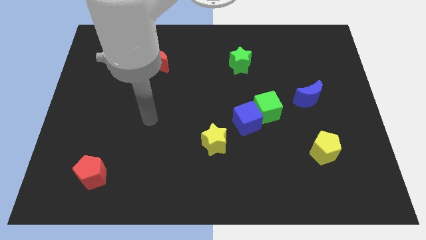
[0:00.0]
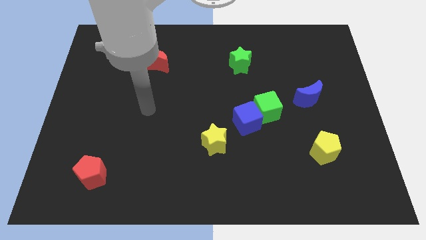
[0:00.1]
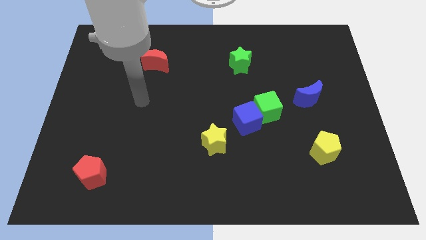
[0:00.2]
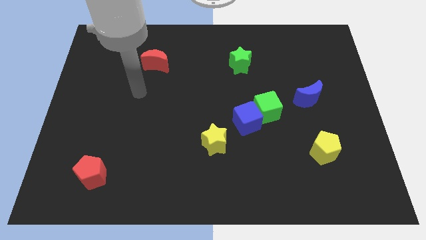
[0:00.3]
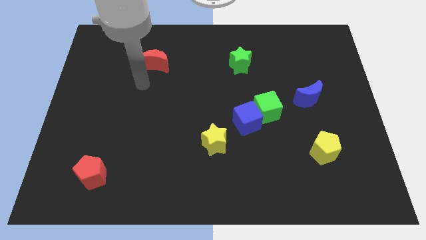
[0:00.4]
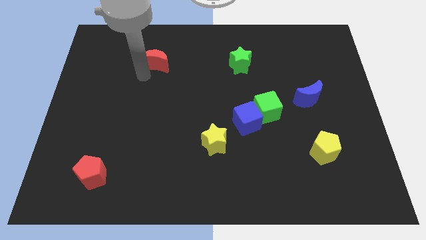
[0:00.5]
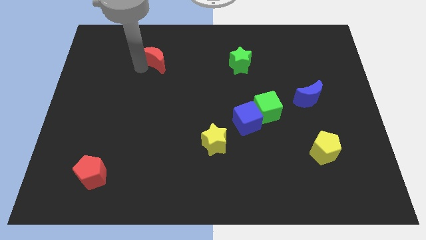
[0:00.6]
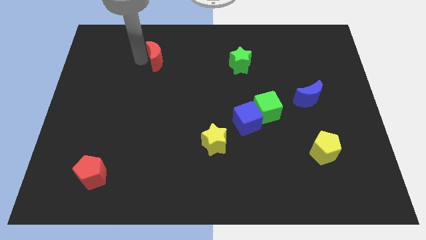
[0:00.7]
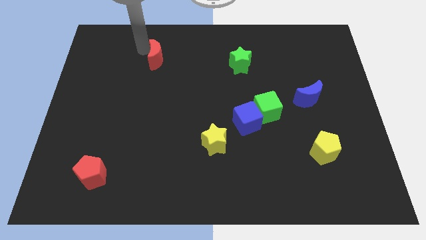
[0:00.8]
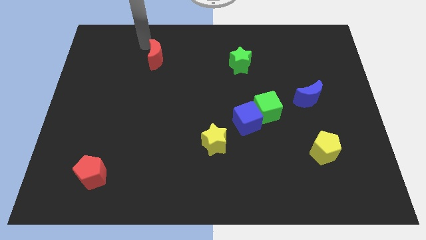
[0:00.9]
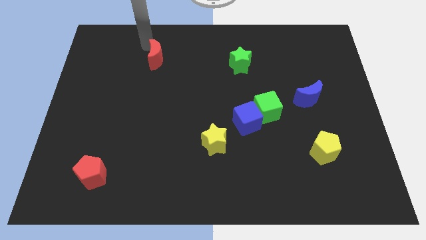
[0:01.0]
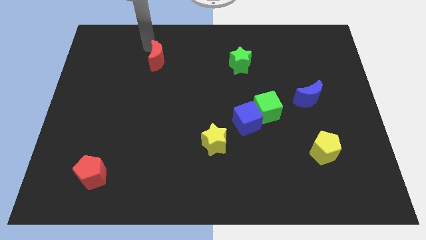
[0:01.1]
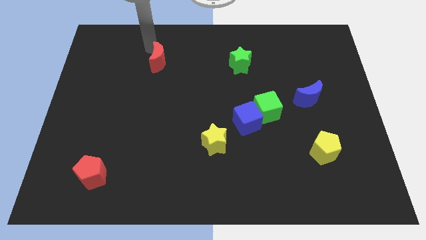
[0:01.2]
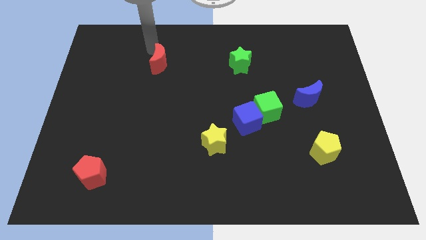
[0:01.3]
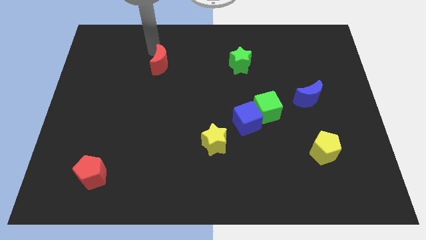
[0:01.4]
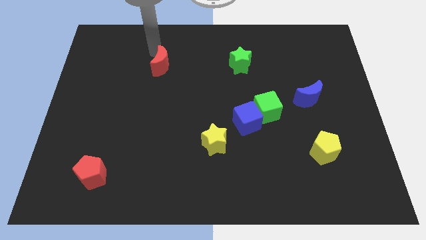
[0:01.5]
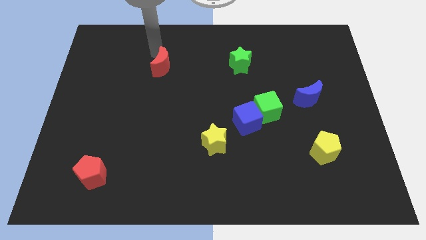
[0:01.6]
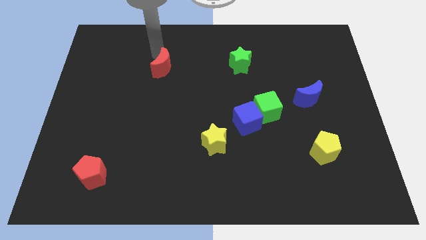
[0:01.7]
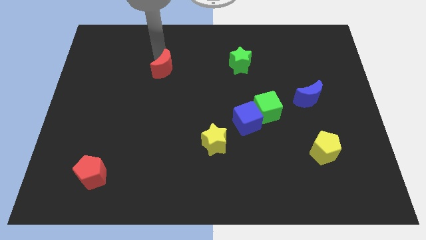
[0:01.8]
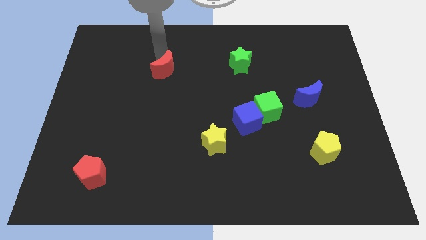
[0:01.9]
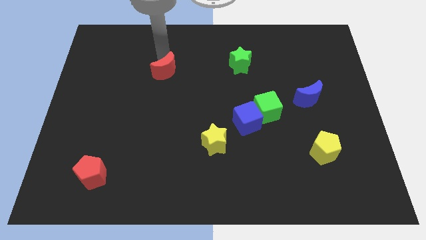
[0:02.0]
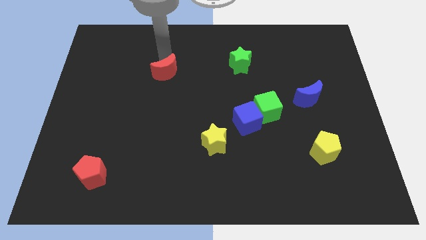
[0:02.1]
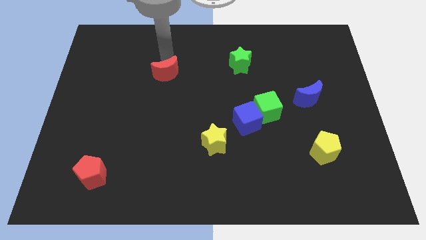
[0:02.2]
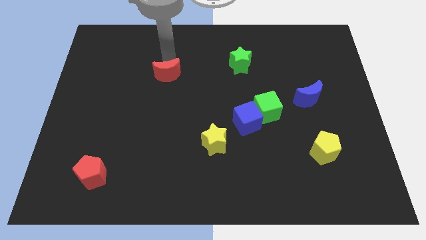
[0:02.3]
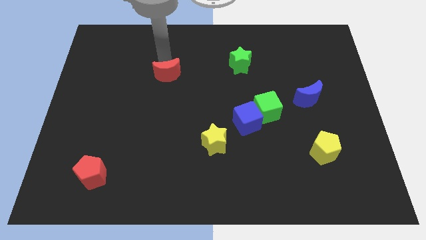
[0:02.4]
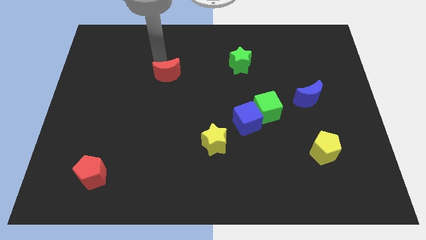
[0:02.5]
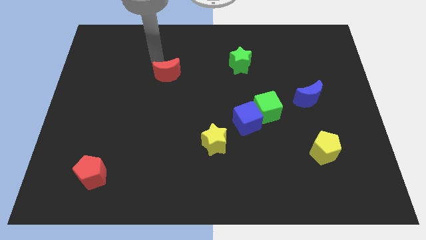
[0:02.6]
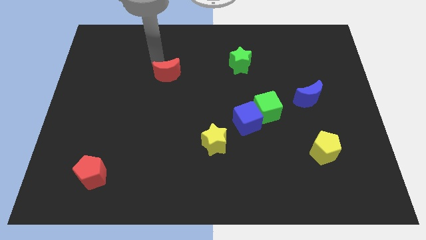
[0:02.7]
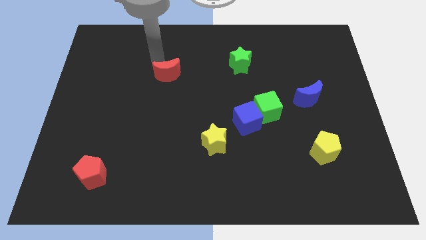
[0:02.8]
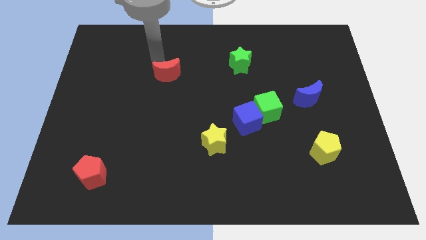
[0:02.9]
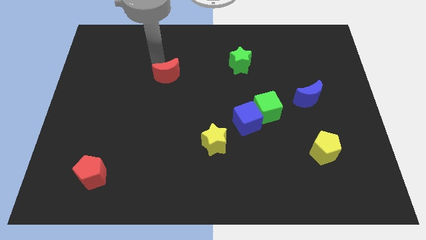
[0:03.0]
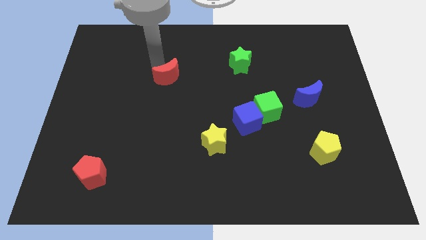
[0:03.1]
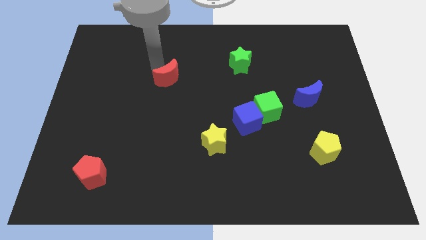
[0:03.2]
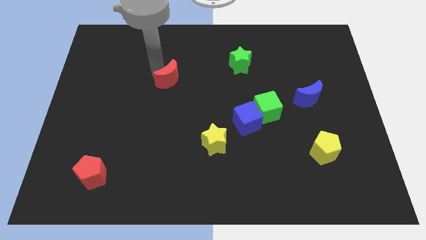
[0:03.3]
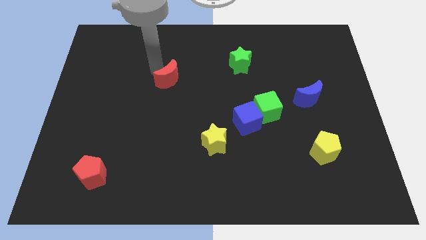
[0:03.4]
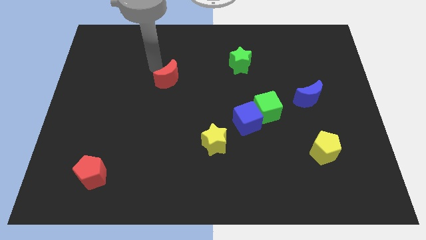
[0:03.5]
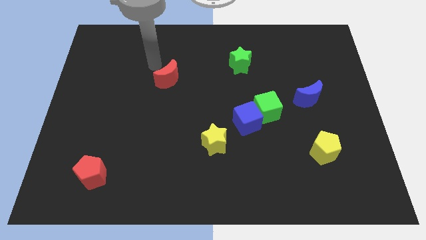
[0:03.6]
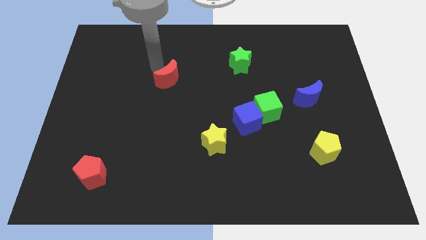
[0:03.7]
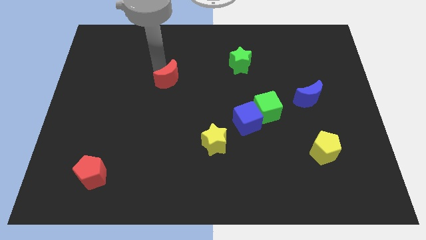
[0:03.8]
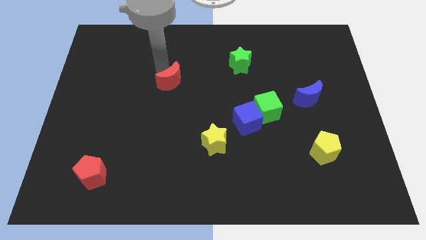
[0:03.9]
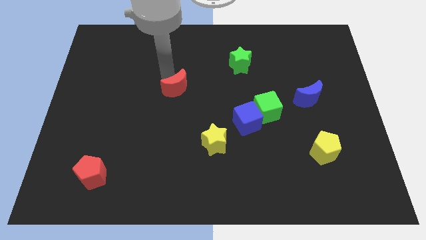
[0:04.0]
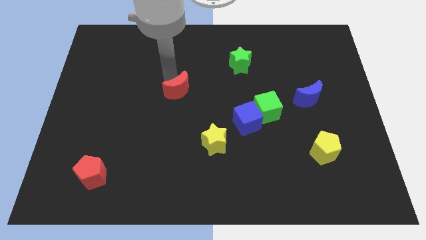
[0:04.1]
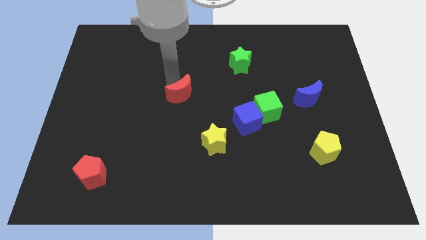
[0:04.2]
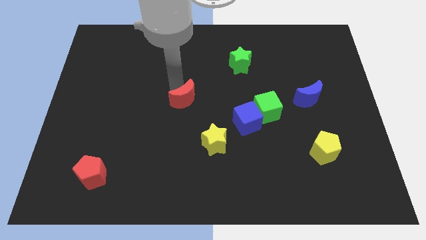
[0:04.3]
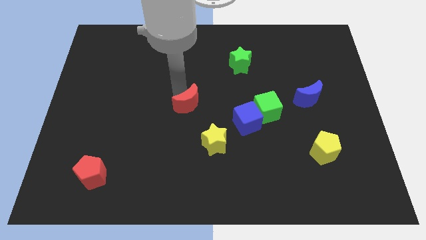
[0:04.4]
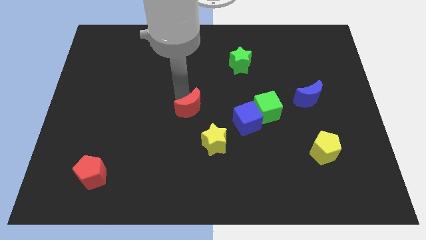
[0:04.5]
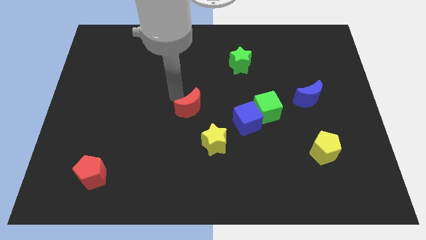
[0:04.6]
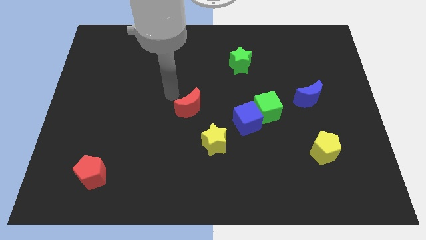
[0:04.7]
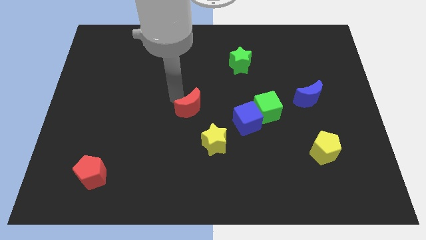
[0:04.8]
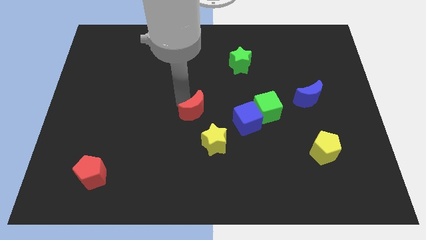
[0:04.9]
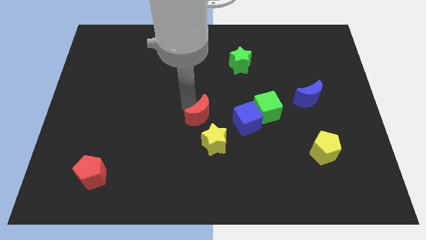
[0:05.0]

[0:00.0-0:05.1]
push the red moon downwards and right

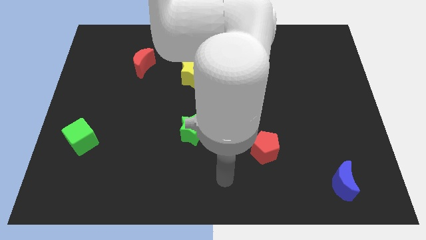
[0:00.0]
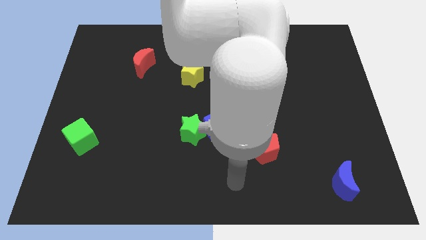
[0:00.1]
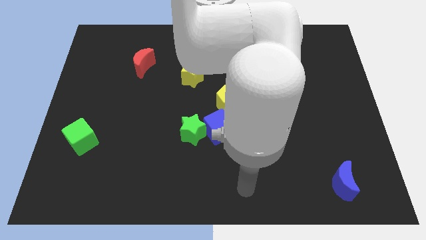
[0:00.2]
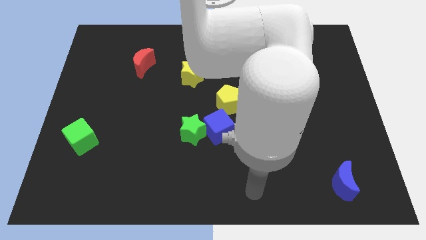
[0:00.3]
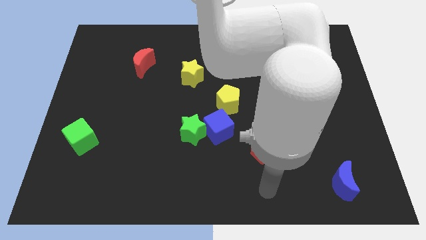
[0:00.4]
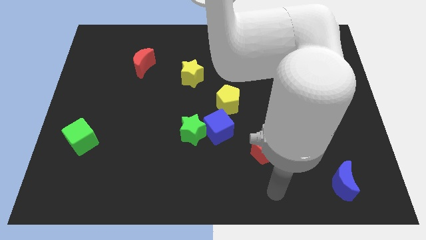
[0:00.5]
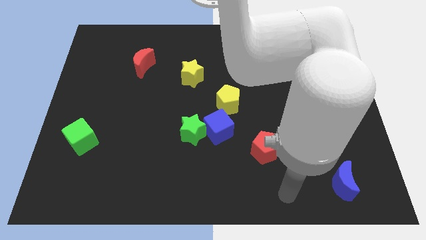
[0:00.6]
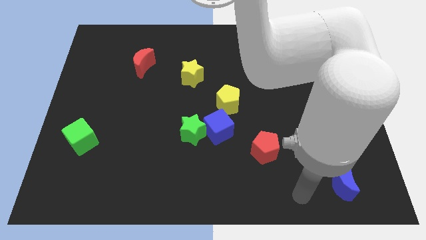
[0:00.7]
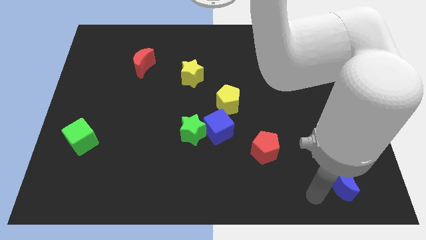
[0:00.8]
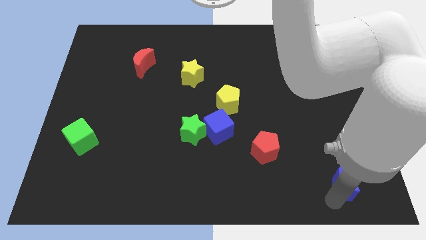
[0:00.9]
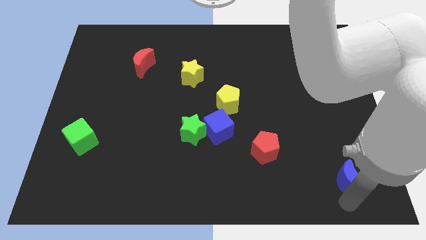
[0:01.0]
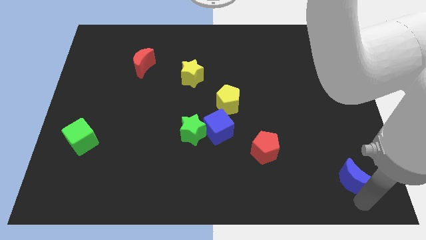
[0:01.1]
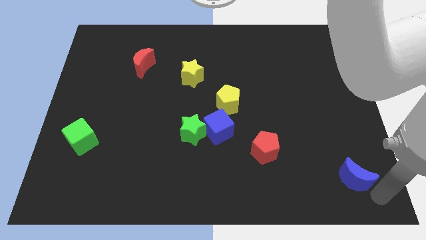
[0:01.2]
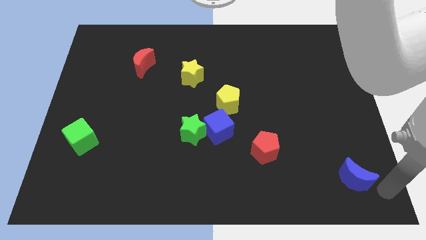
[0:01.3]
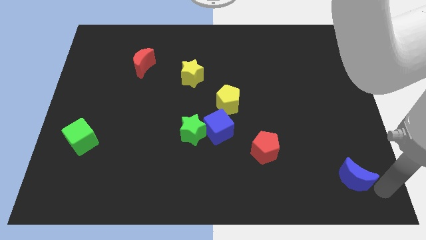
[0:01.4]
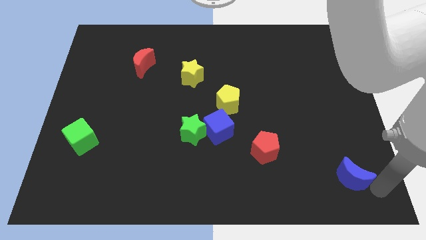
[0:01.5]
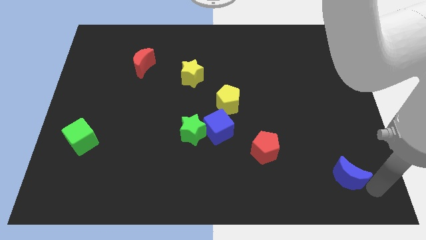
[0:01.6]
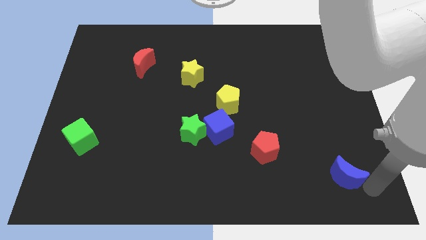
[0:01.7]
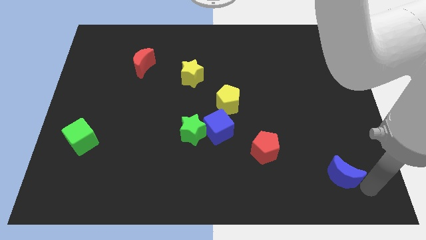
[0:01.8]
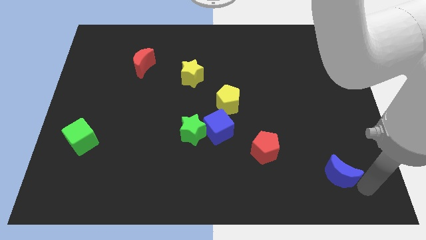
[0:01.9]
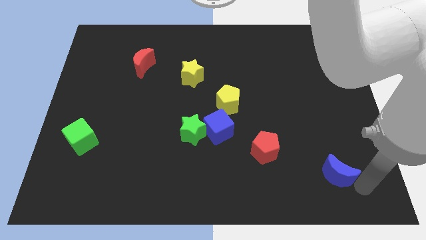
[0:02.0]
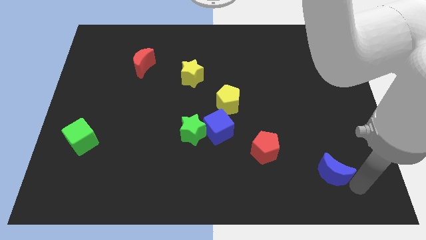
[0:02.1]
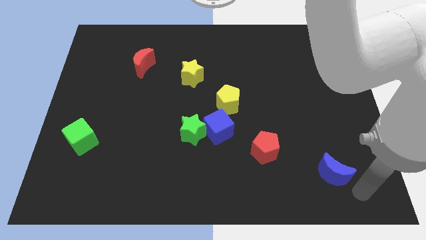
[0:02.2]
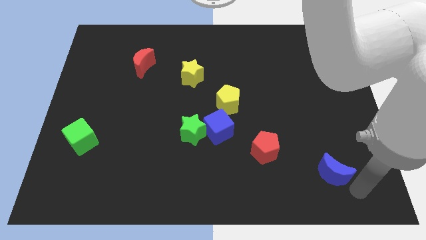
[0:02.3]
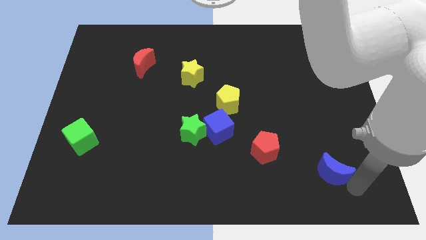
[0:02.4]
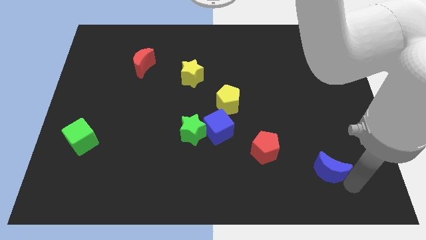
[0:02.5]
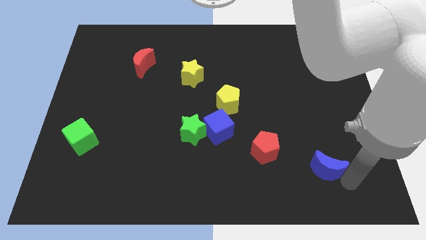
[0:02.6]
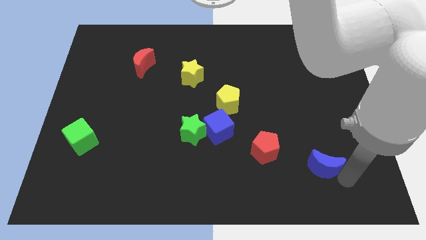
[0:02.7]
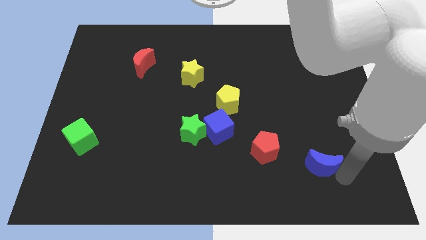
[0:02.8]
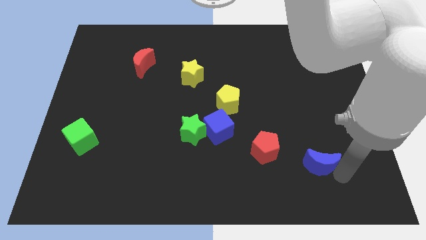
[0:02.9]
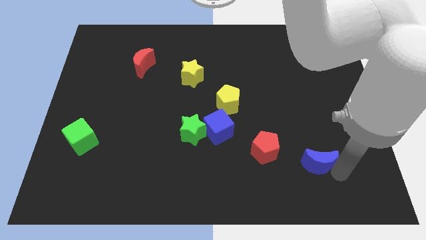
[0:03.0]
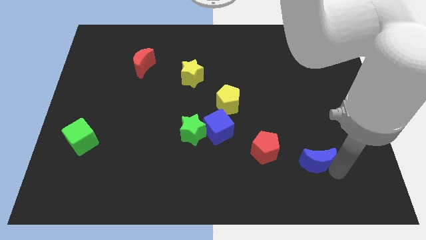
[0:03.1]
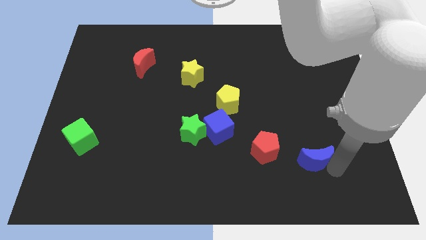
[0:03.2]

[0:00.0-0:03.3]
slide the blue moon upwards and then to the left slightly
